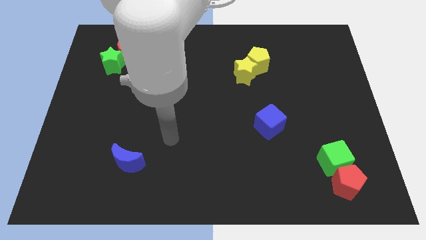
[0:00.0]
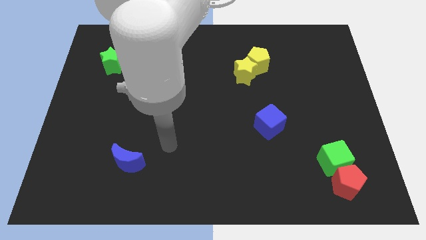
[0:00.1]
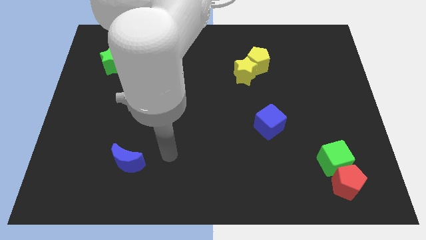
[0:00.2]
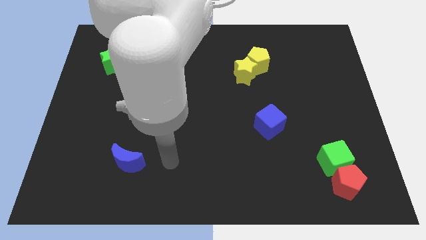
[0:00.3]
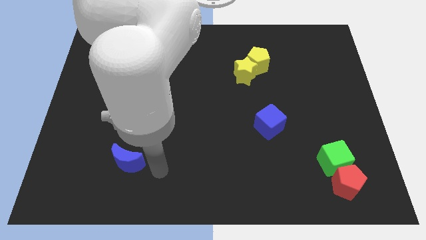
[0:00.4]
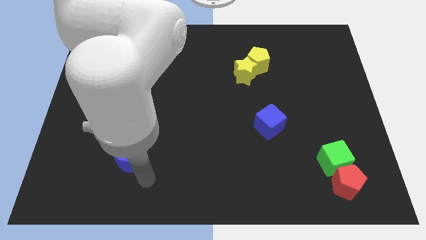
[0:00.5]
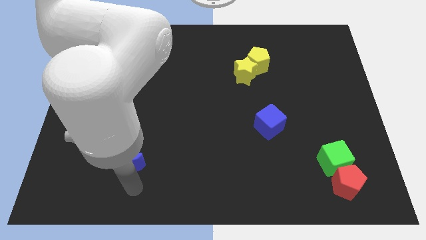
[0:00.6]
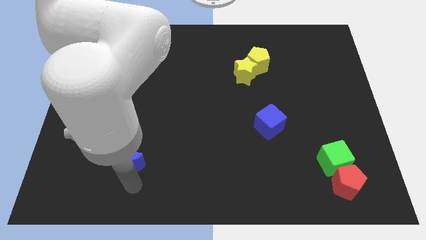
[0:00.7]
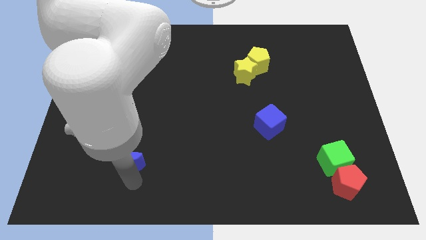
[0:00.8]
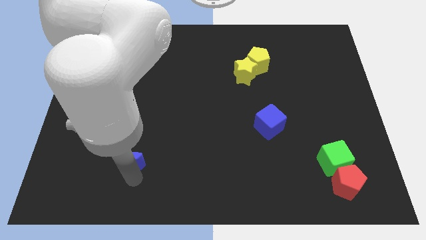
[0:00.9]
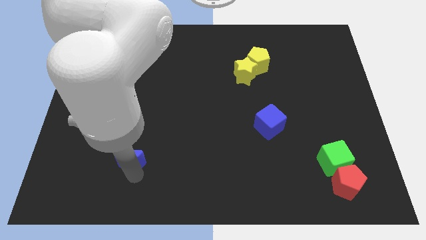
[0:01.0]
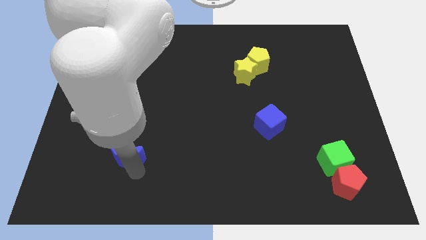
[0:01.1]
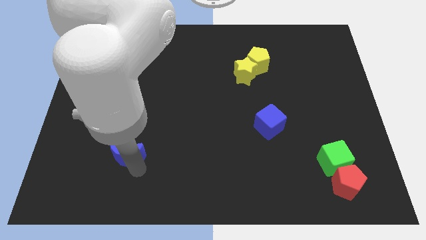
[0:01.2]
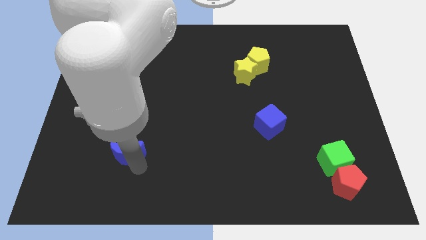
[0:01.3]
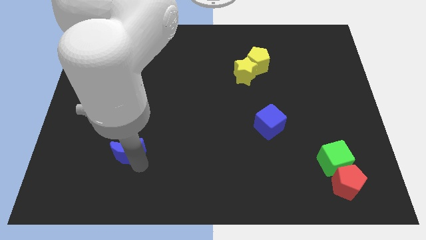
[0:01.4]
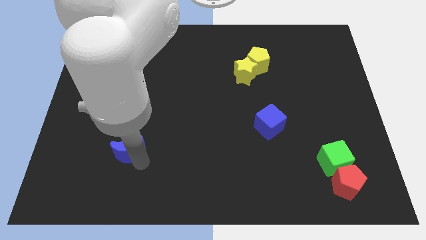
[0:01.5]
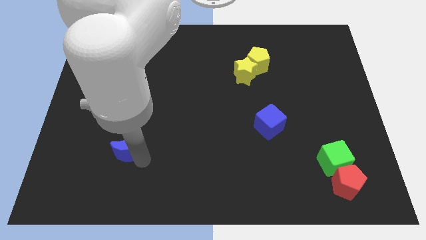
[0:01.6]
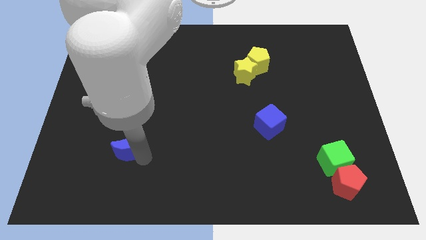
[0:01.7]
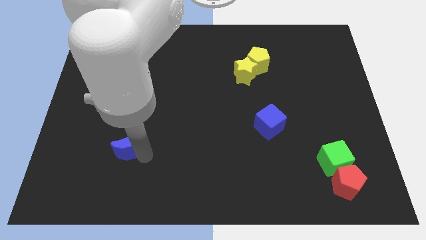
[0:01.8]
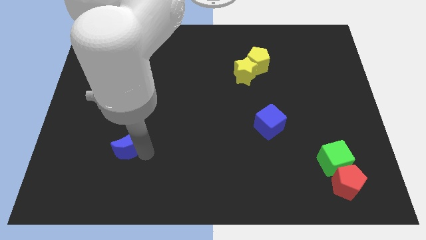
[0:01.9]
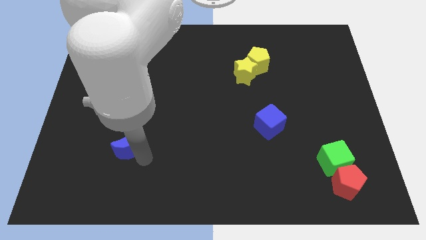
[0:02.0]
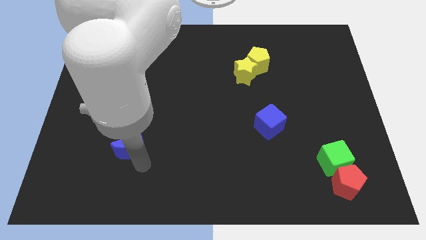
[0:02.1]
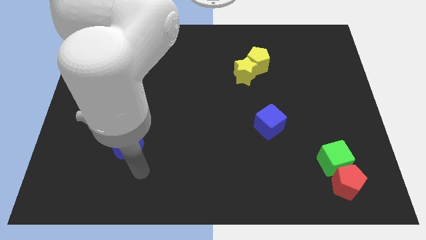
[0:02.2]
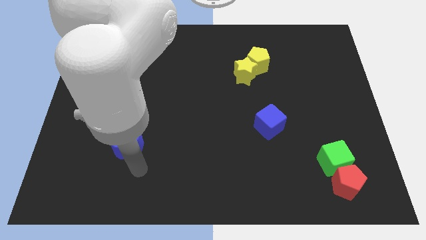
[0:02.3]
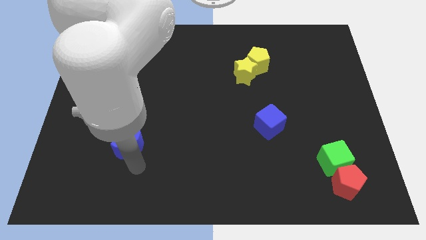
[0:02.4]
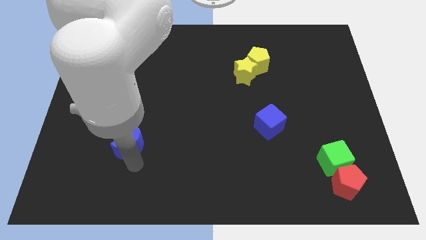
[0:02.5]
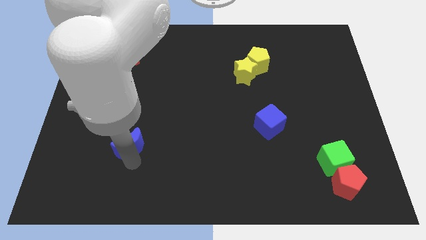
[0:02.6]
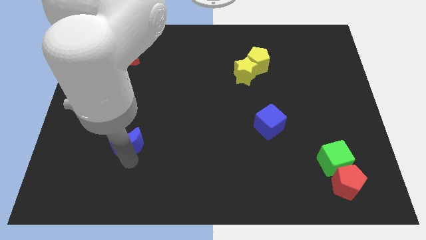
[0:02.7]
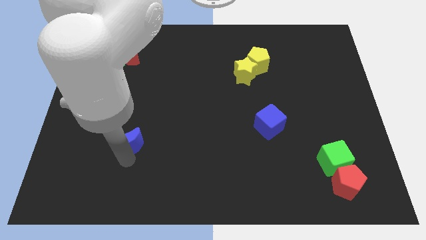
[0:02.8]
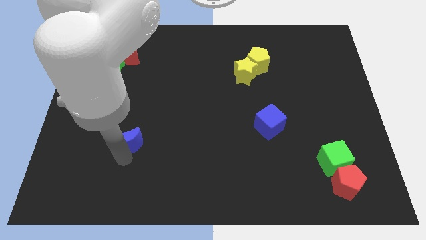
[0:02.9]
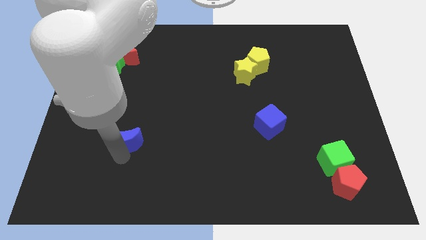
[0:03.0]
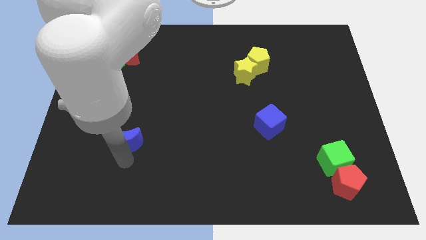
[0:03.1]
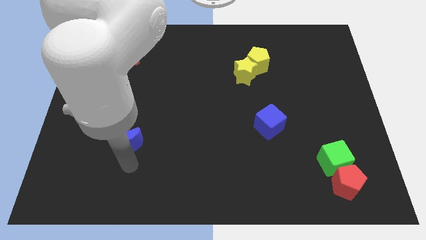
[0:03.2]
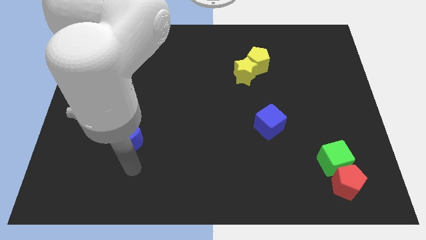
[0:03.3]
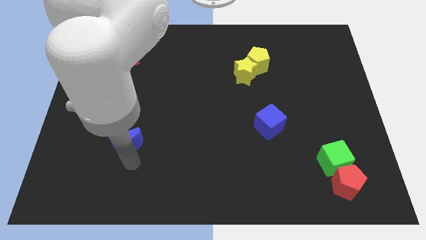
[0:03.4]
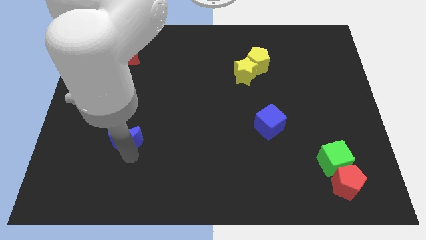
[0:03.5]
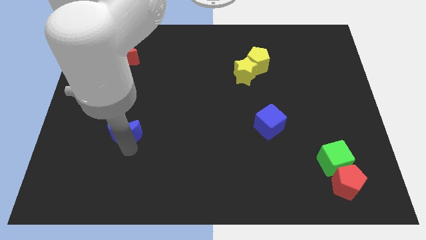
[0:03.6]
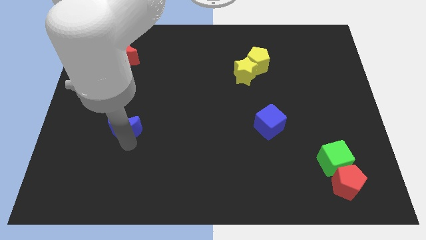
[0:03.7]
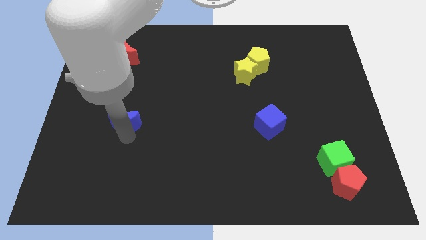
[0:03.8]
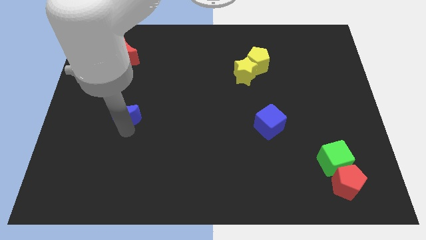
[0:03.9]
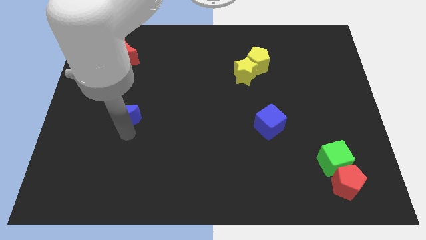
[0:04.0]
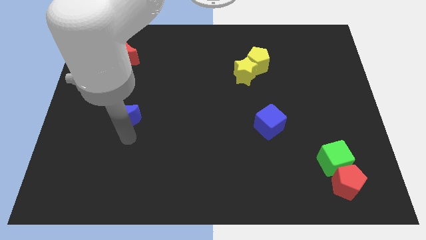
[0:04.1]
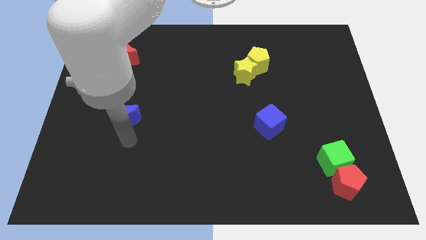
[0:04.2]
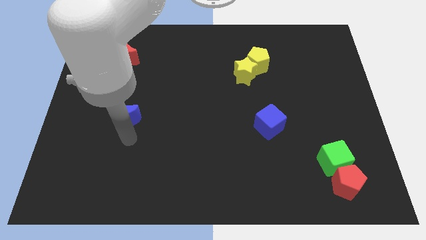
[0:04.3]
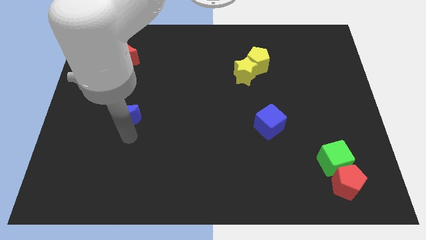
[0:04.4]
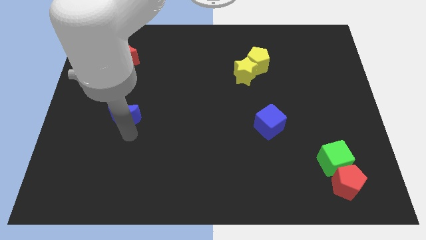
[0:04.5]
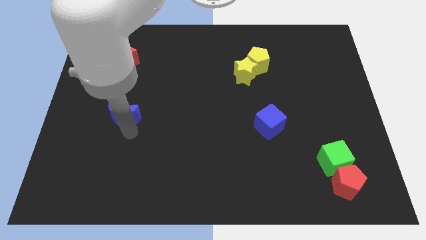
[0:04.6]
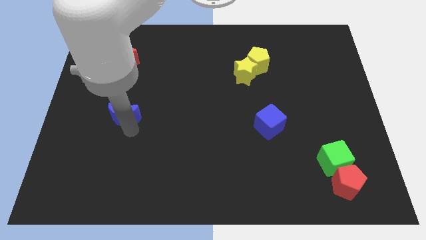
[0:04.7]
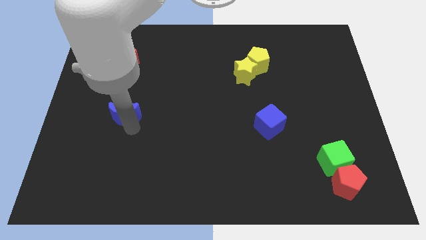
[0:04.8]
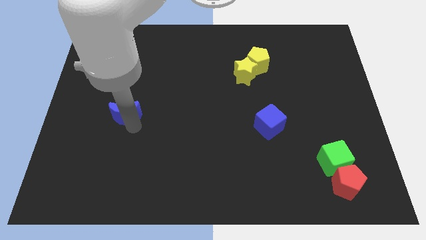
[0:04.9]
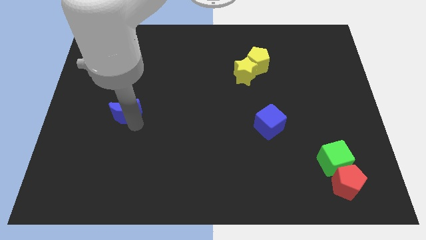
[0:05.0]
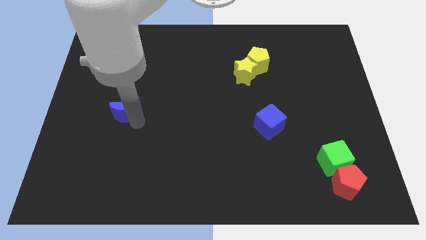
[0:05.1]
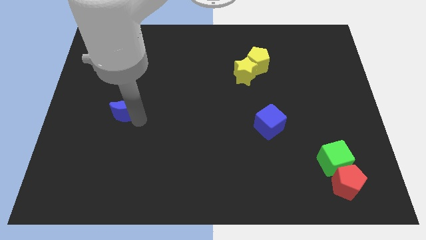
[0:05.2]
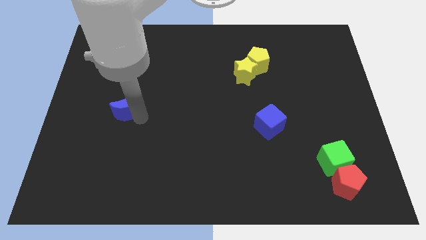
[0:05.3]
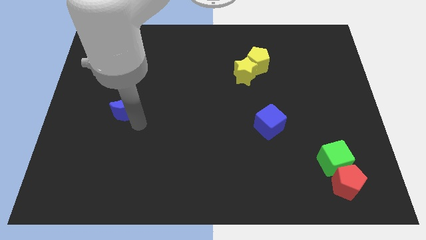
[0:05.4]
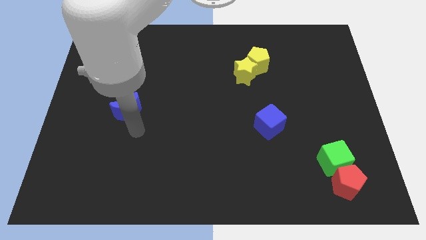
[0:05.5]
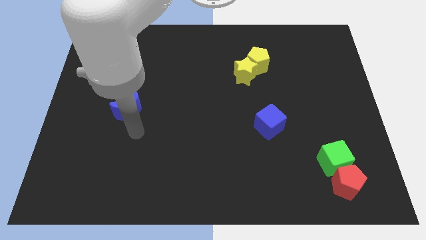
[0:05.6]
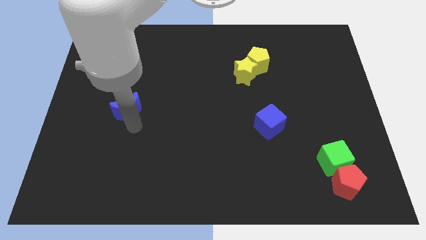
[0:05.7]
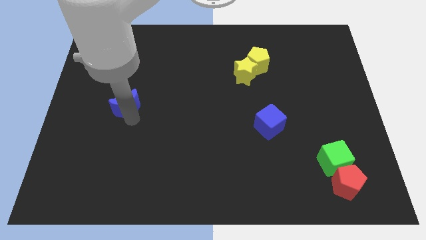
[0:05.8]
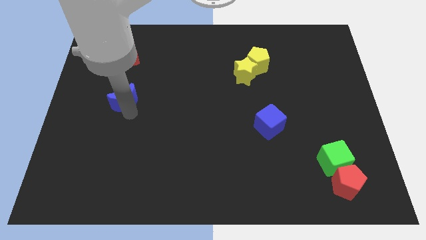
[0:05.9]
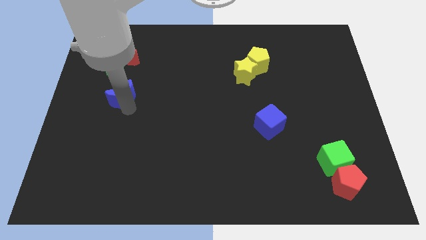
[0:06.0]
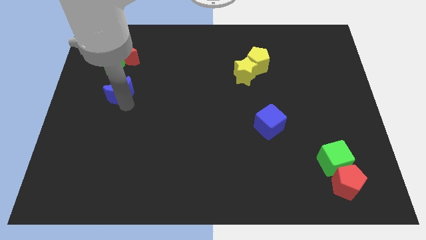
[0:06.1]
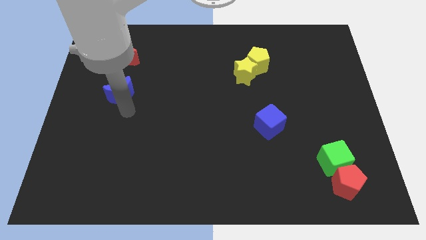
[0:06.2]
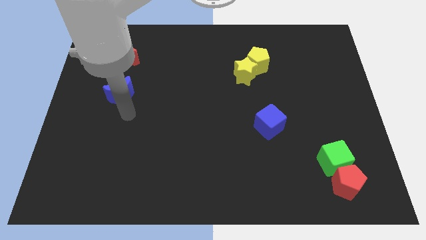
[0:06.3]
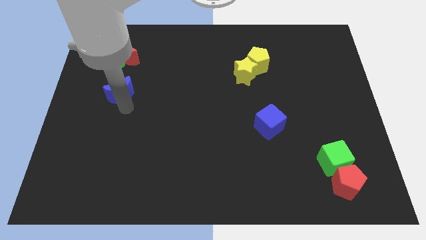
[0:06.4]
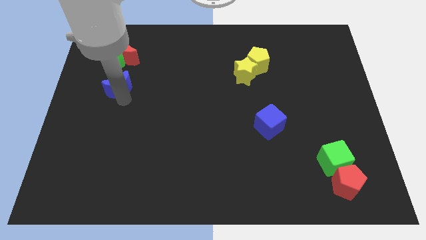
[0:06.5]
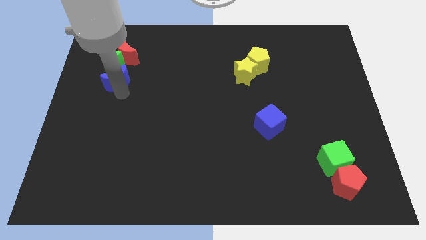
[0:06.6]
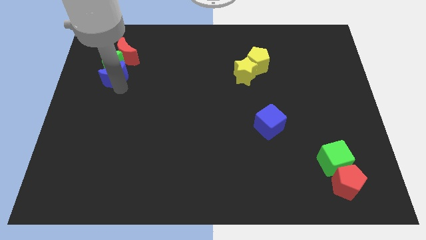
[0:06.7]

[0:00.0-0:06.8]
slide the blue moon close to the green star

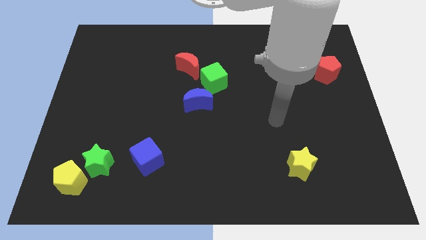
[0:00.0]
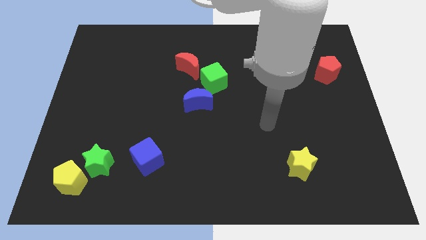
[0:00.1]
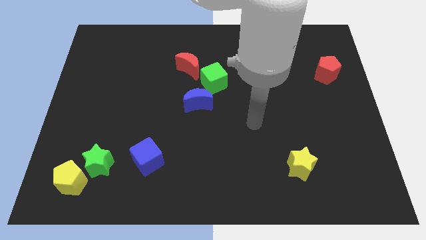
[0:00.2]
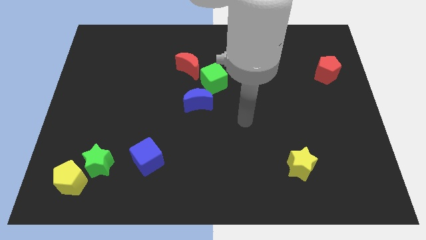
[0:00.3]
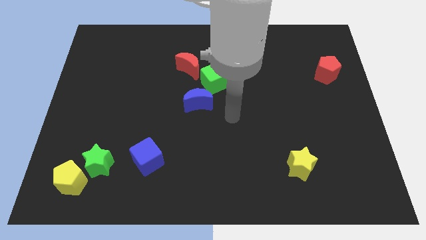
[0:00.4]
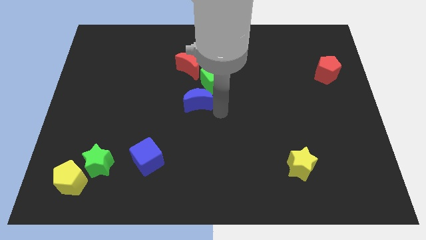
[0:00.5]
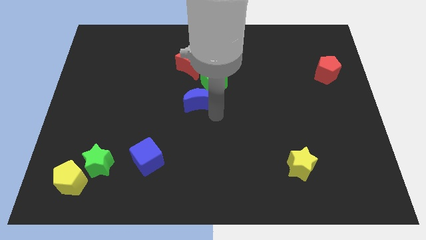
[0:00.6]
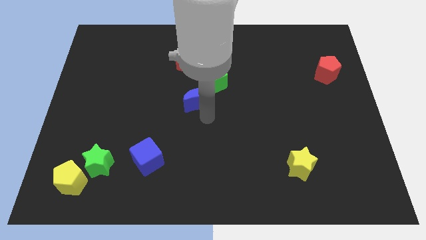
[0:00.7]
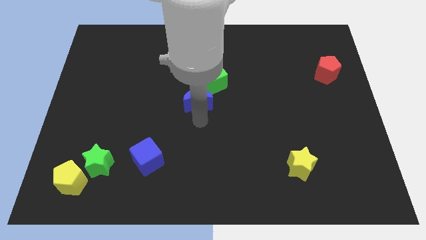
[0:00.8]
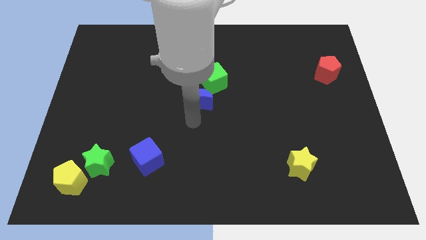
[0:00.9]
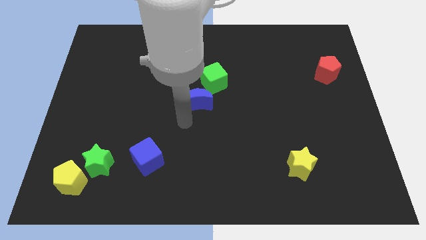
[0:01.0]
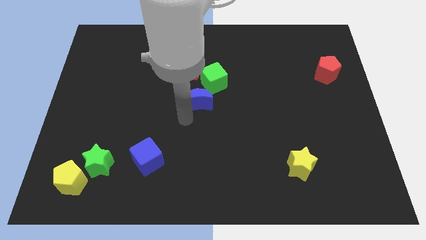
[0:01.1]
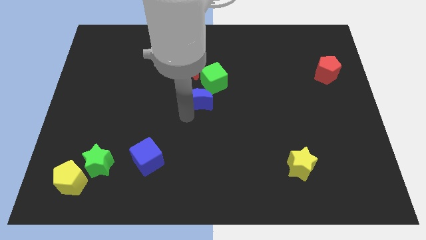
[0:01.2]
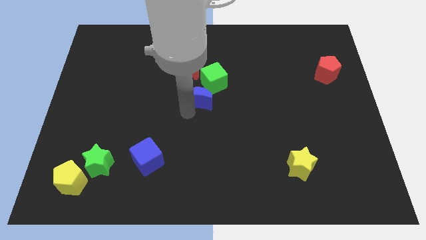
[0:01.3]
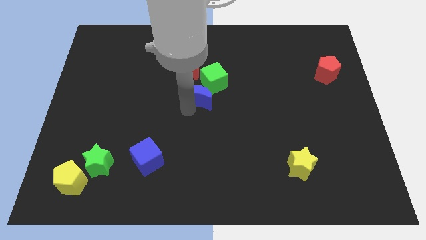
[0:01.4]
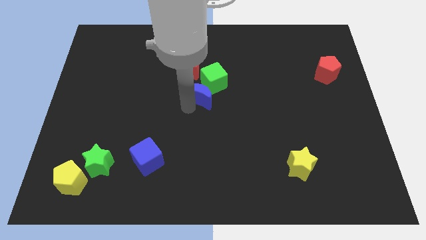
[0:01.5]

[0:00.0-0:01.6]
slide the blue moon towards the green cube
